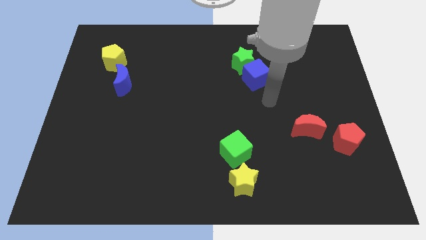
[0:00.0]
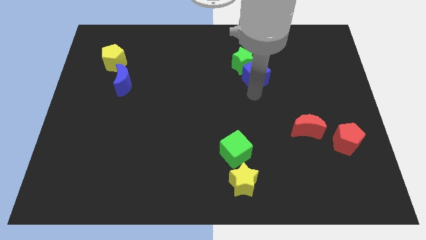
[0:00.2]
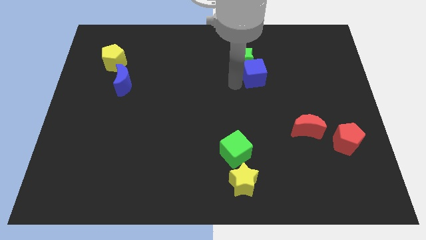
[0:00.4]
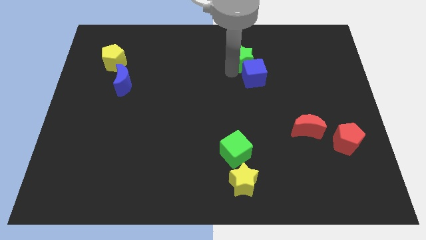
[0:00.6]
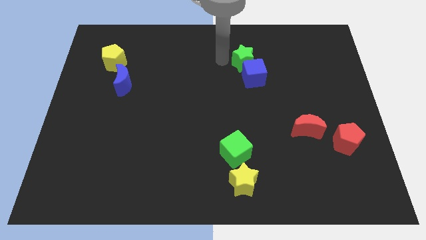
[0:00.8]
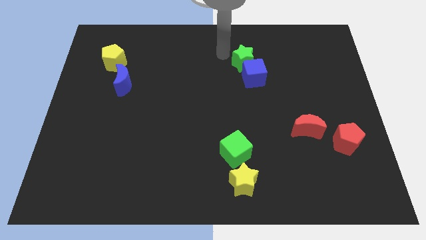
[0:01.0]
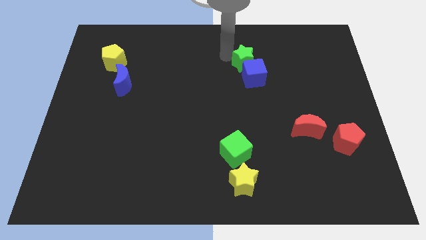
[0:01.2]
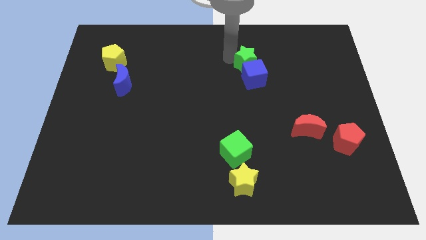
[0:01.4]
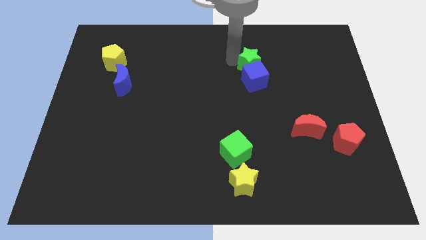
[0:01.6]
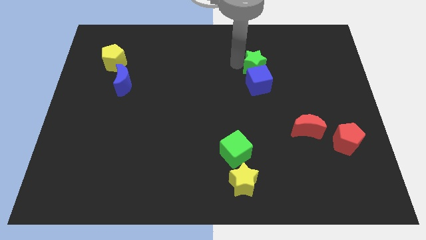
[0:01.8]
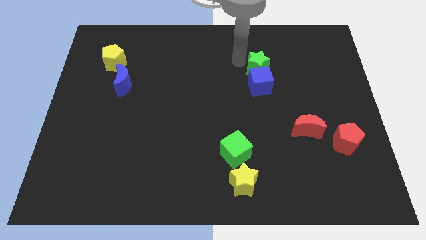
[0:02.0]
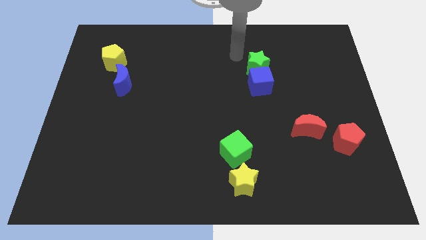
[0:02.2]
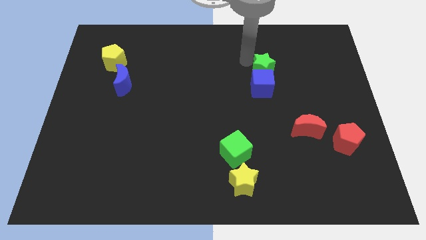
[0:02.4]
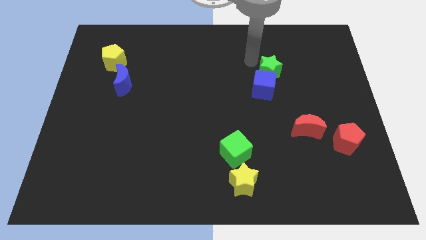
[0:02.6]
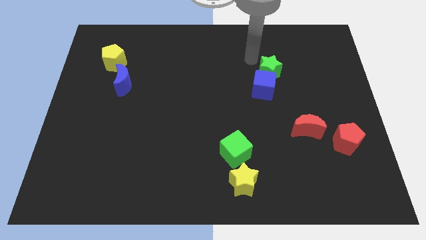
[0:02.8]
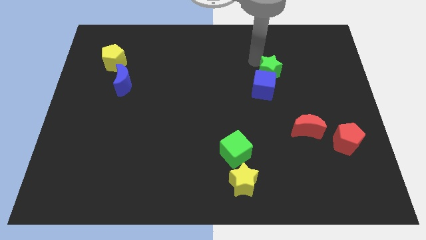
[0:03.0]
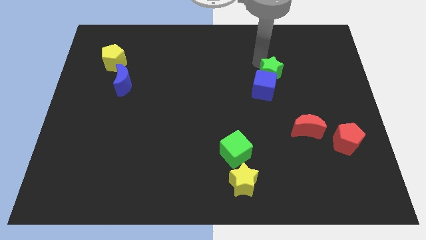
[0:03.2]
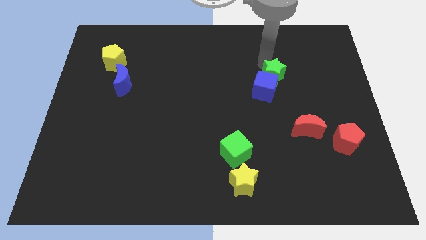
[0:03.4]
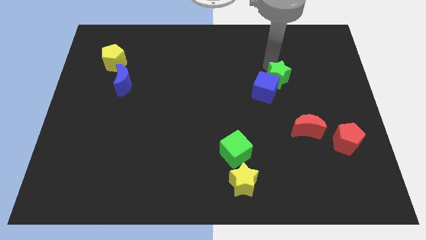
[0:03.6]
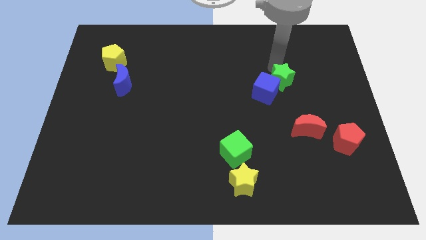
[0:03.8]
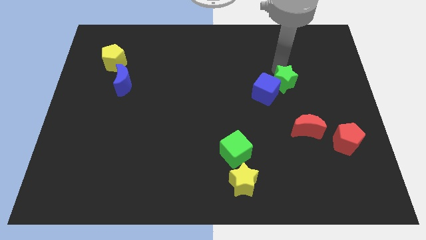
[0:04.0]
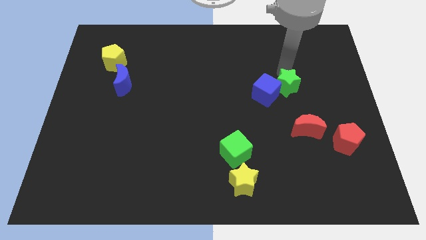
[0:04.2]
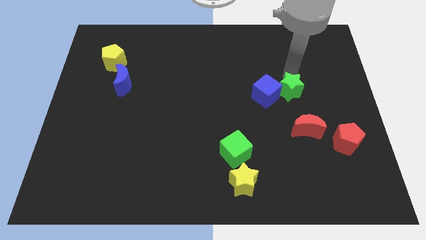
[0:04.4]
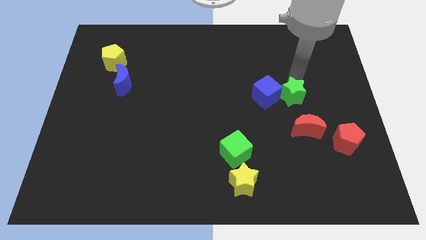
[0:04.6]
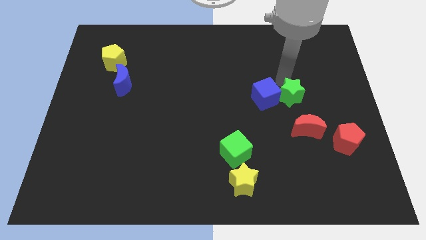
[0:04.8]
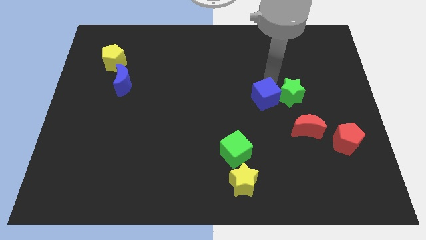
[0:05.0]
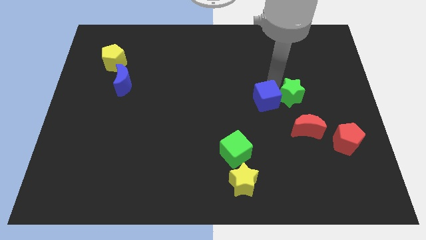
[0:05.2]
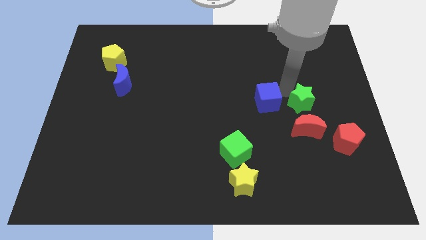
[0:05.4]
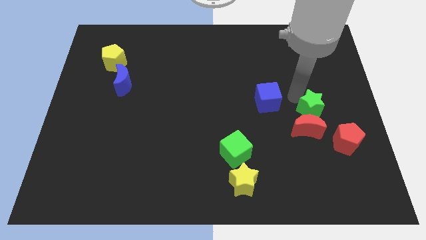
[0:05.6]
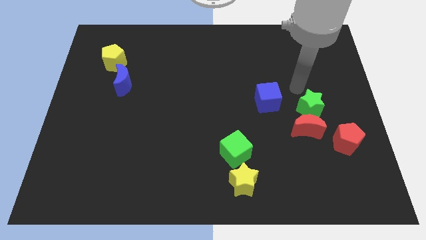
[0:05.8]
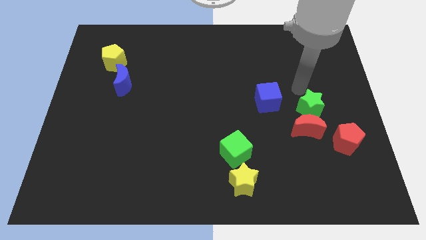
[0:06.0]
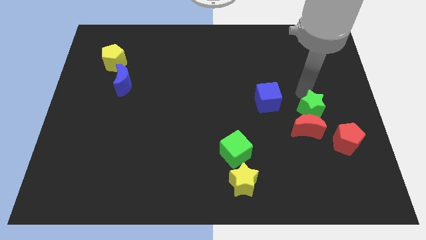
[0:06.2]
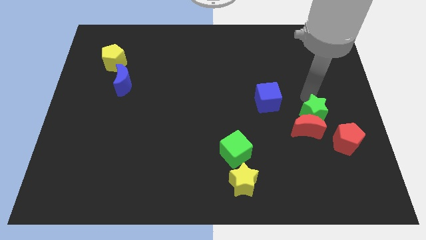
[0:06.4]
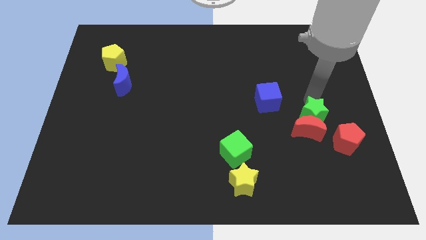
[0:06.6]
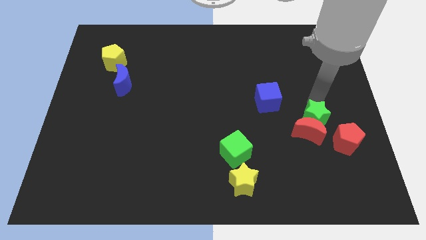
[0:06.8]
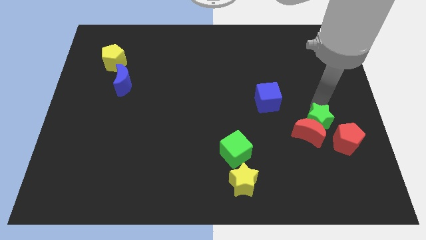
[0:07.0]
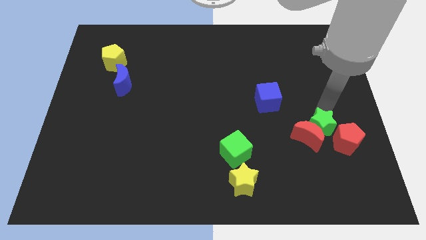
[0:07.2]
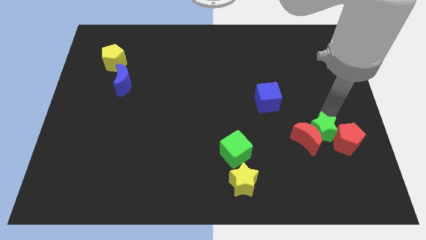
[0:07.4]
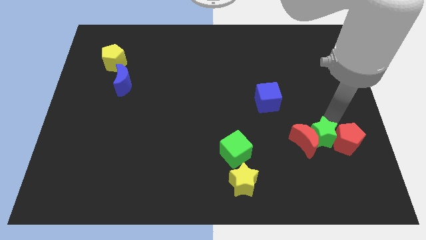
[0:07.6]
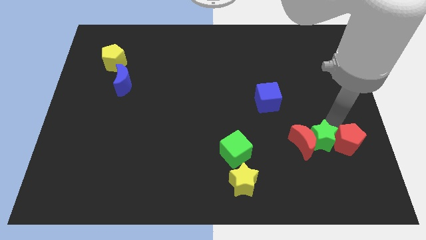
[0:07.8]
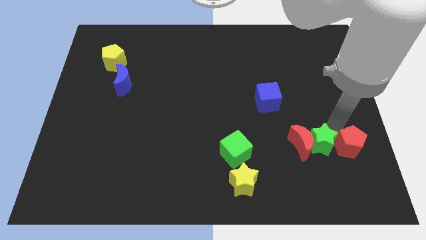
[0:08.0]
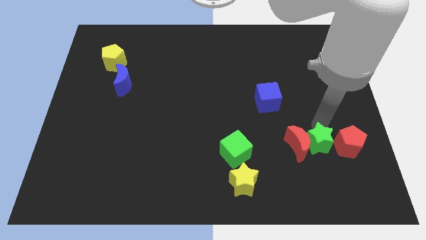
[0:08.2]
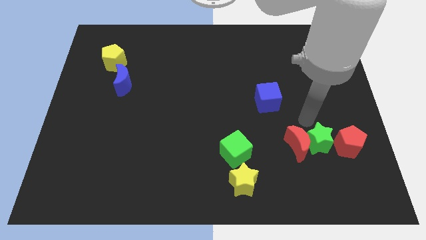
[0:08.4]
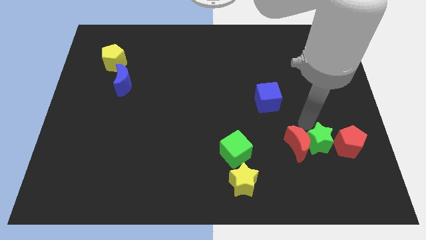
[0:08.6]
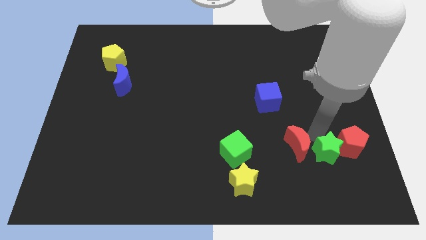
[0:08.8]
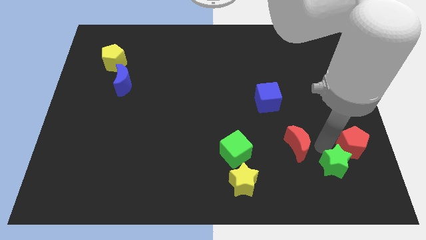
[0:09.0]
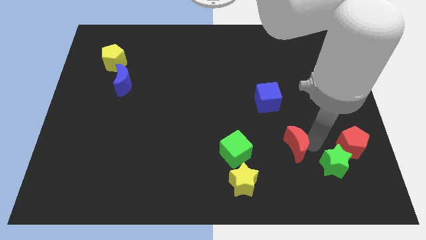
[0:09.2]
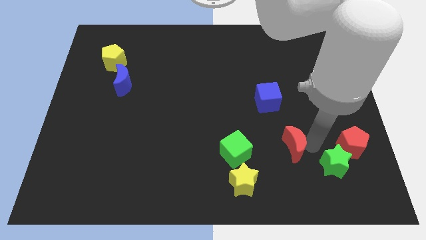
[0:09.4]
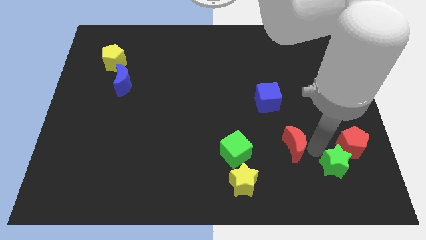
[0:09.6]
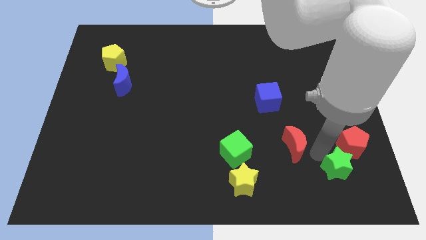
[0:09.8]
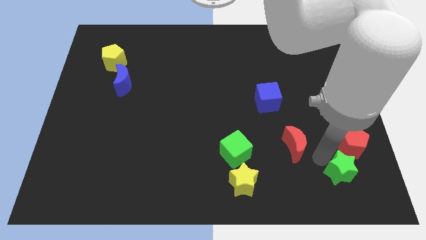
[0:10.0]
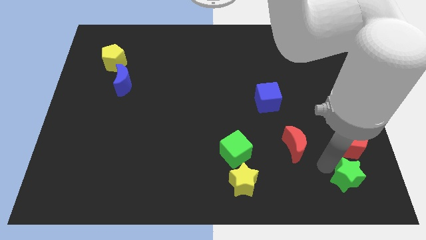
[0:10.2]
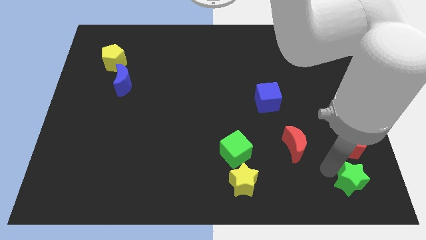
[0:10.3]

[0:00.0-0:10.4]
push the green star to the lower right corner

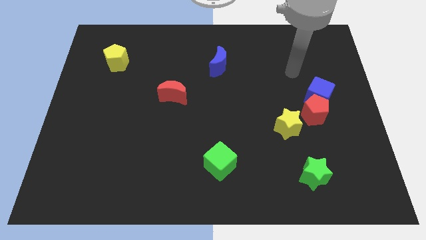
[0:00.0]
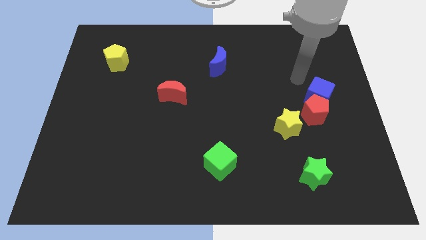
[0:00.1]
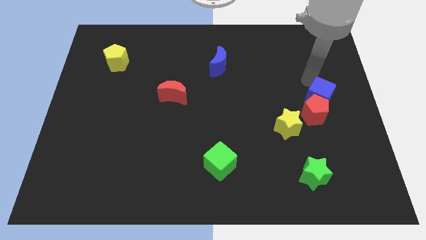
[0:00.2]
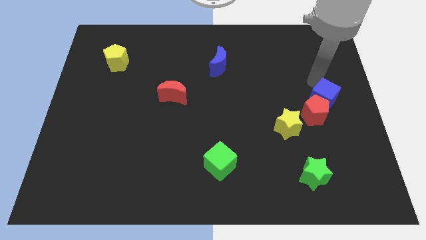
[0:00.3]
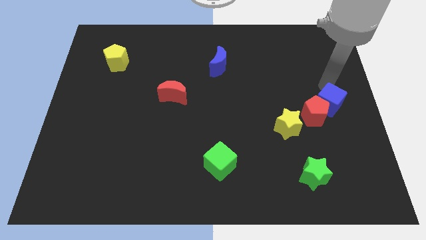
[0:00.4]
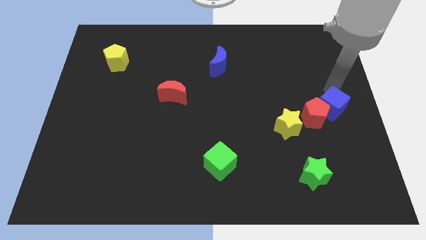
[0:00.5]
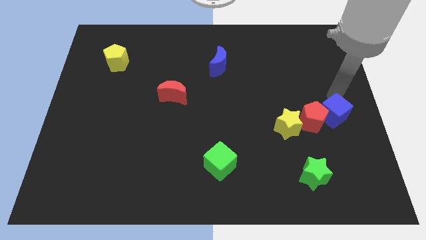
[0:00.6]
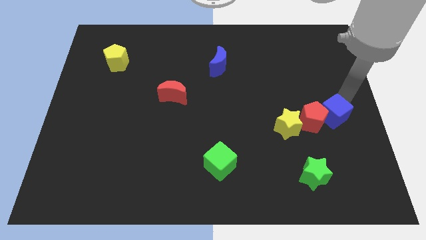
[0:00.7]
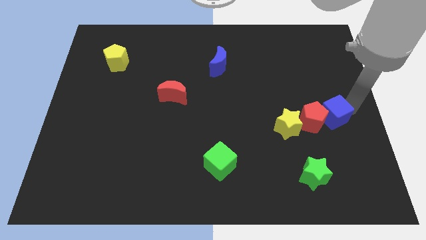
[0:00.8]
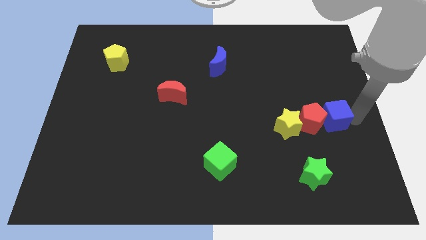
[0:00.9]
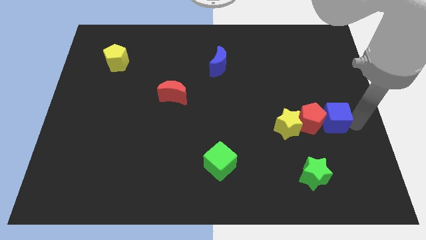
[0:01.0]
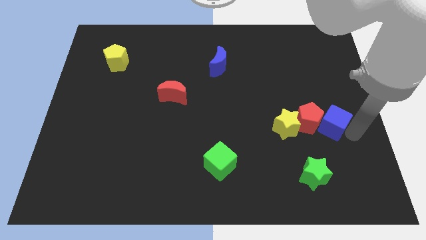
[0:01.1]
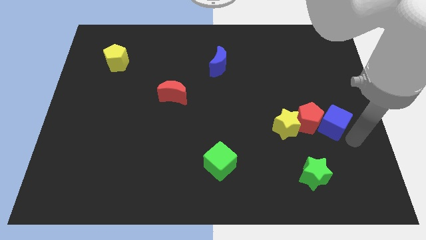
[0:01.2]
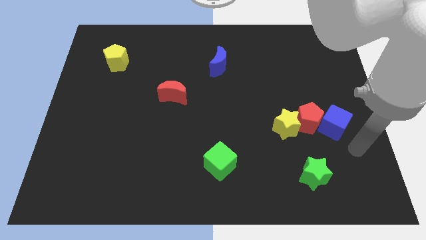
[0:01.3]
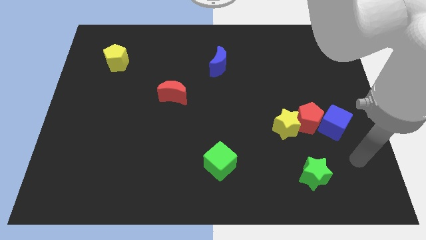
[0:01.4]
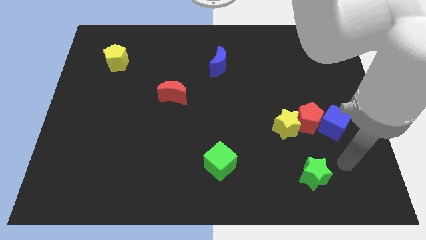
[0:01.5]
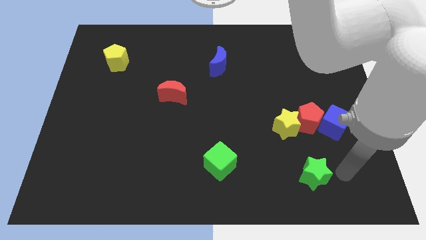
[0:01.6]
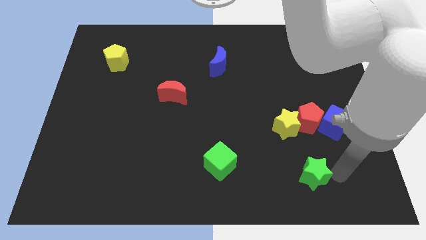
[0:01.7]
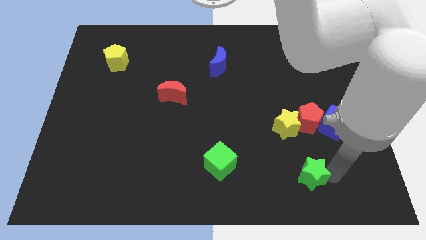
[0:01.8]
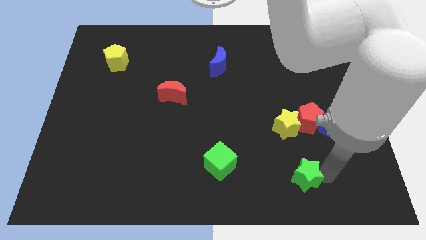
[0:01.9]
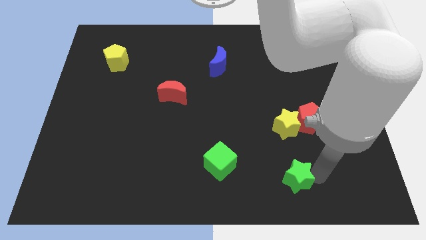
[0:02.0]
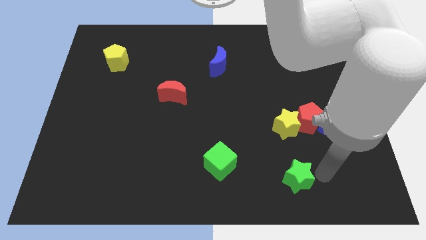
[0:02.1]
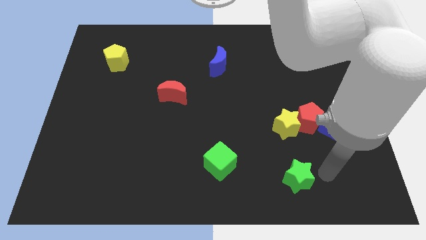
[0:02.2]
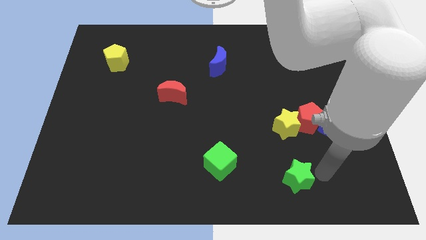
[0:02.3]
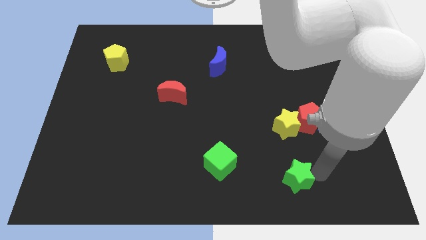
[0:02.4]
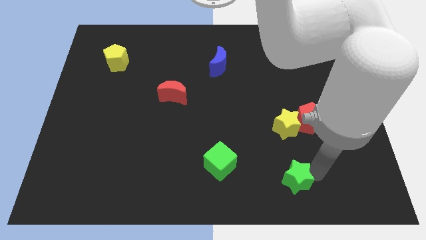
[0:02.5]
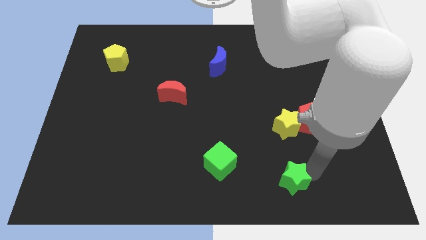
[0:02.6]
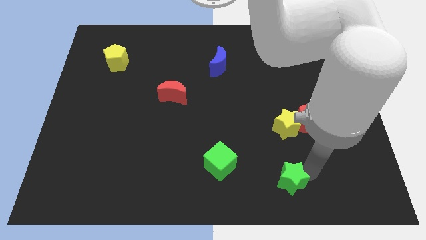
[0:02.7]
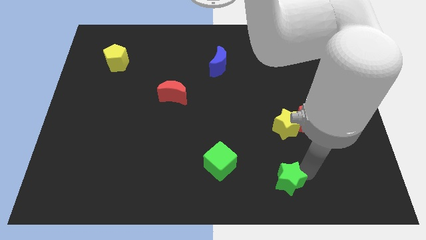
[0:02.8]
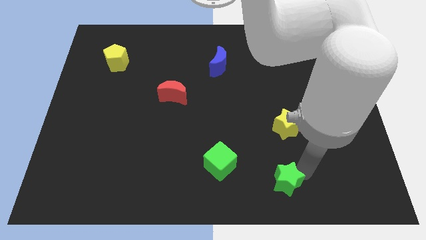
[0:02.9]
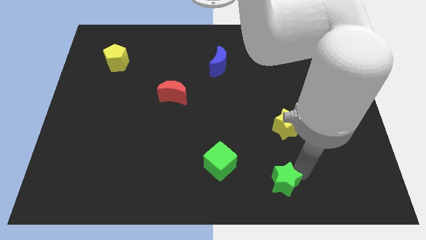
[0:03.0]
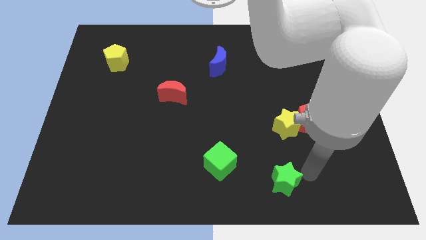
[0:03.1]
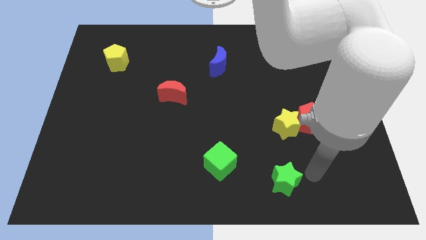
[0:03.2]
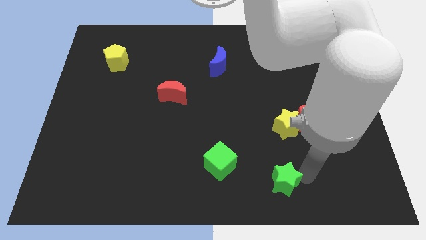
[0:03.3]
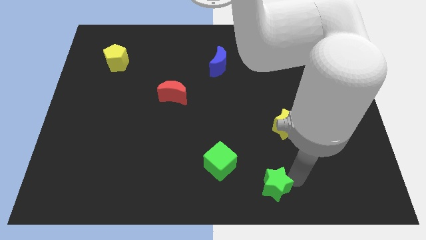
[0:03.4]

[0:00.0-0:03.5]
put the green star to the bottom side
